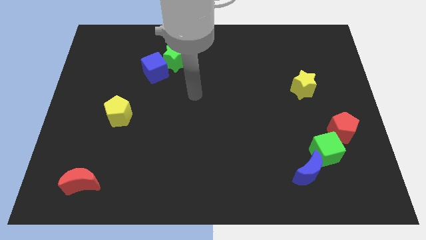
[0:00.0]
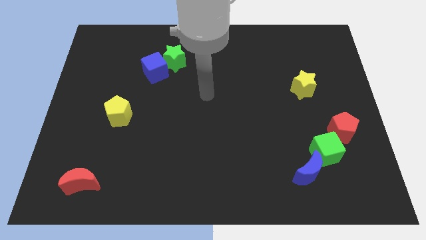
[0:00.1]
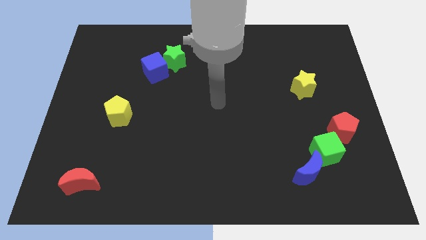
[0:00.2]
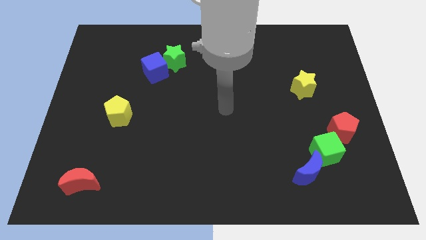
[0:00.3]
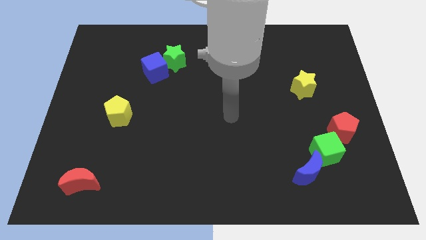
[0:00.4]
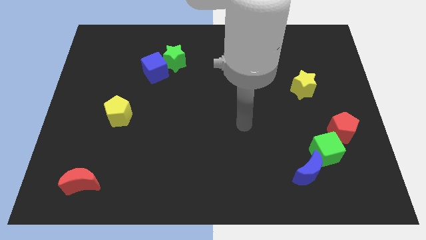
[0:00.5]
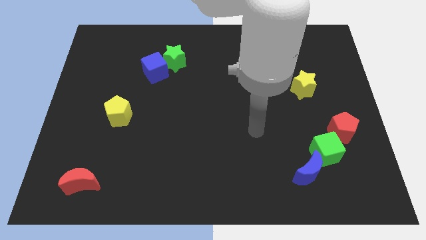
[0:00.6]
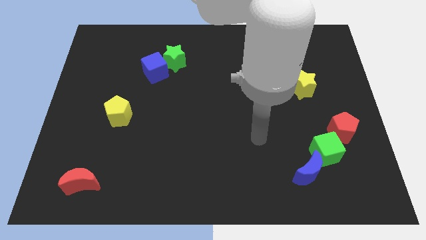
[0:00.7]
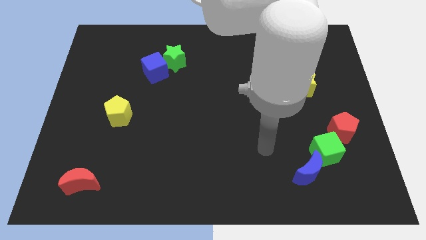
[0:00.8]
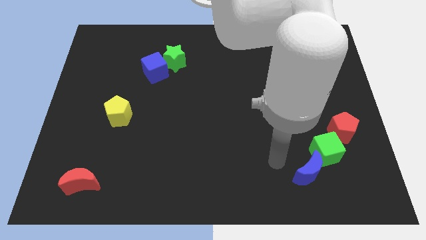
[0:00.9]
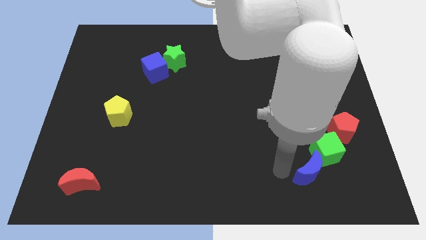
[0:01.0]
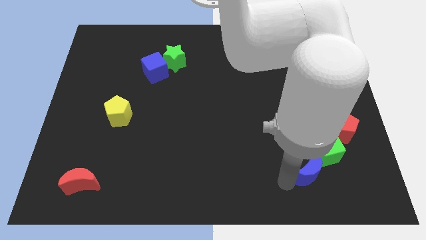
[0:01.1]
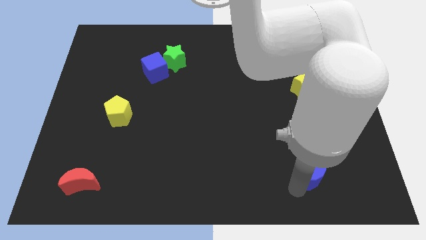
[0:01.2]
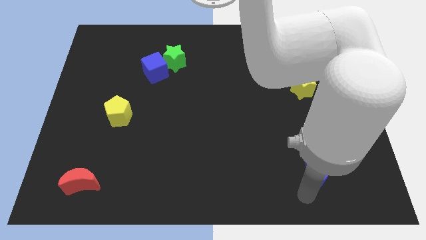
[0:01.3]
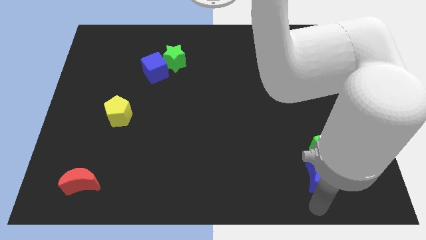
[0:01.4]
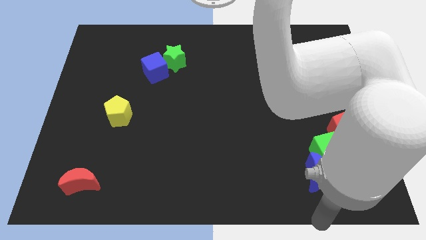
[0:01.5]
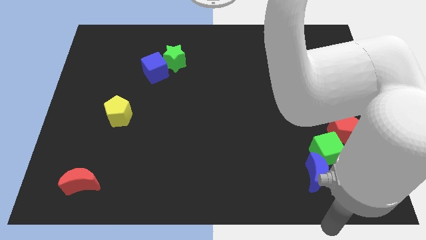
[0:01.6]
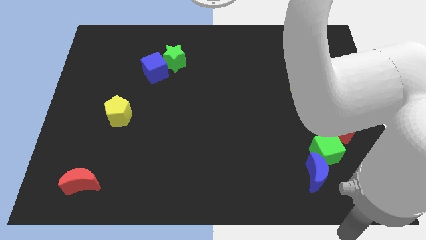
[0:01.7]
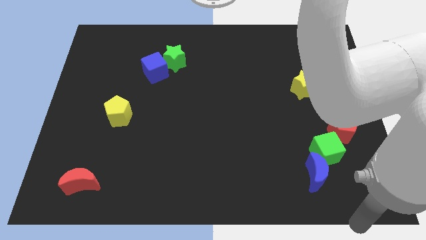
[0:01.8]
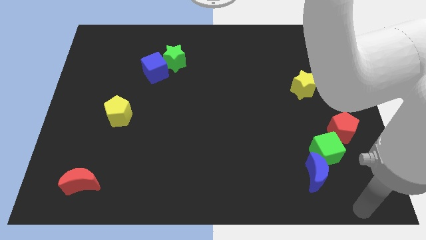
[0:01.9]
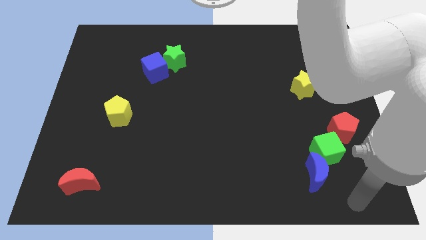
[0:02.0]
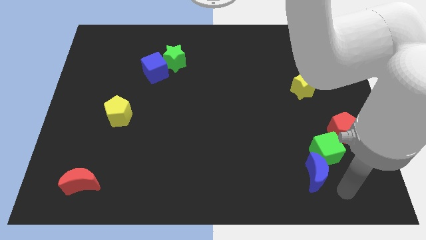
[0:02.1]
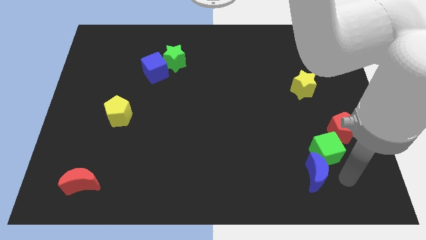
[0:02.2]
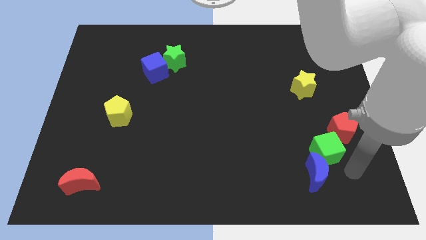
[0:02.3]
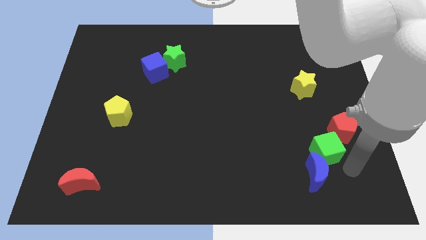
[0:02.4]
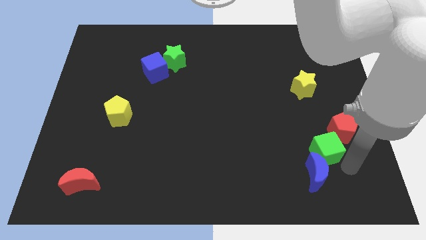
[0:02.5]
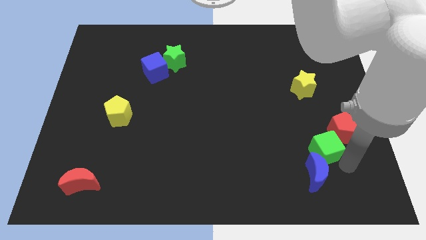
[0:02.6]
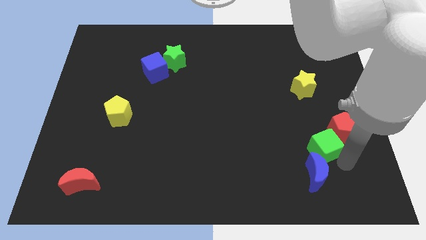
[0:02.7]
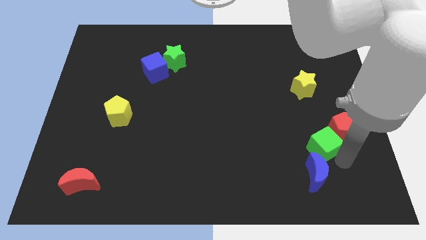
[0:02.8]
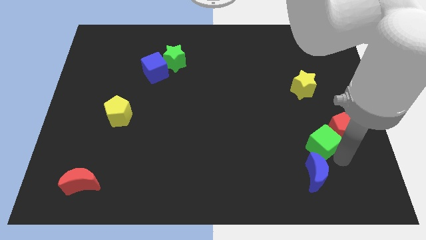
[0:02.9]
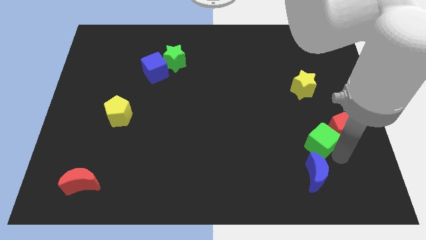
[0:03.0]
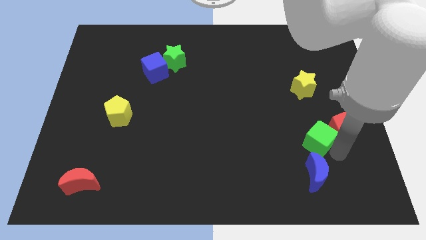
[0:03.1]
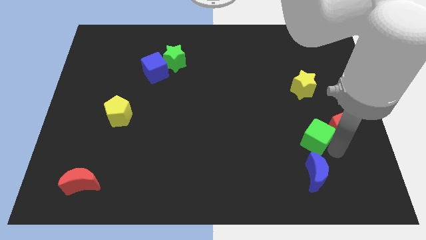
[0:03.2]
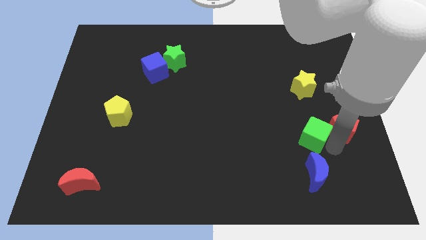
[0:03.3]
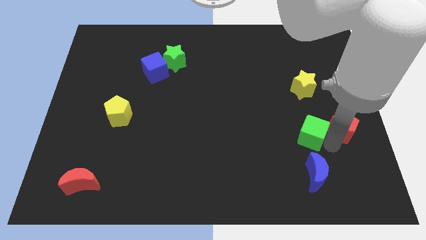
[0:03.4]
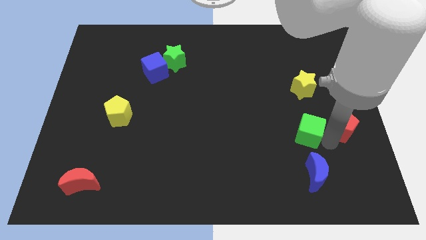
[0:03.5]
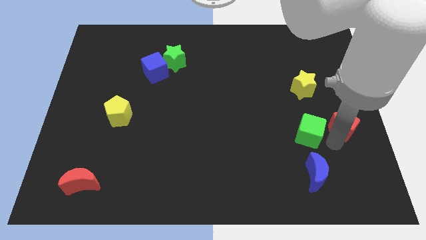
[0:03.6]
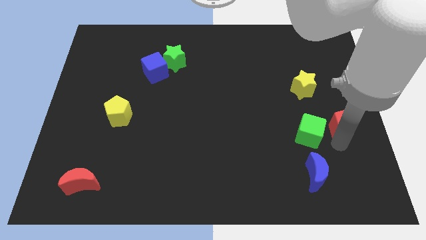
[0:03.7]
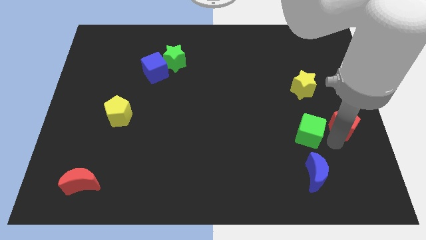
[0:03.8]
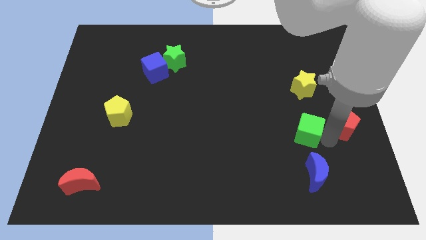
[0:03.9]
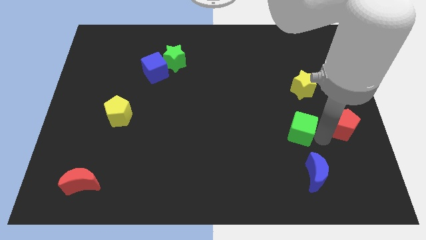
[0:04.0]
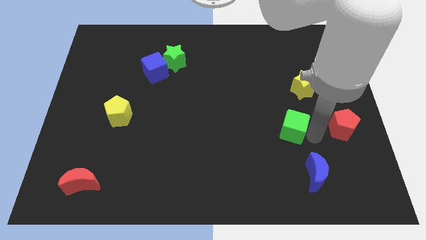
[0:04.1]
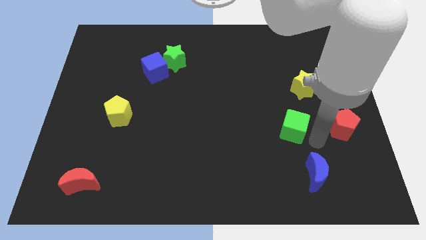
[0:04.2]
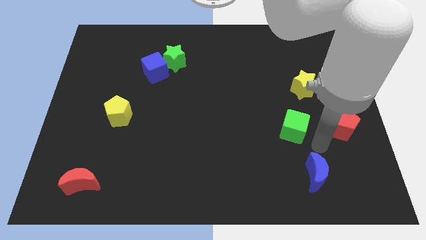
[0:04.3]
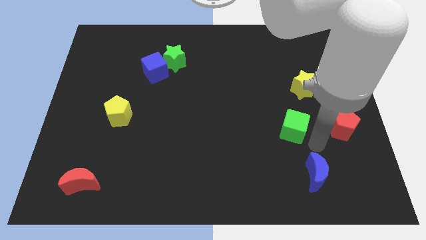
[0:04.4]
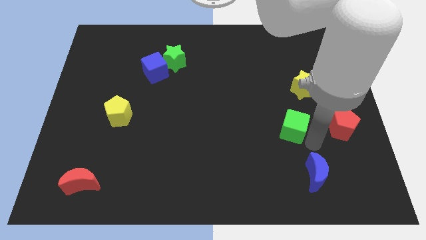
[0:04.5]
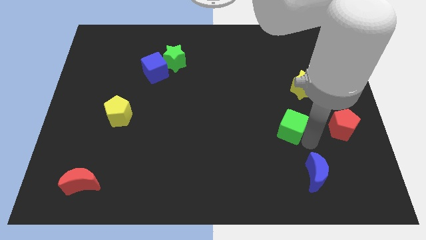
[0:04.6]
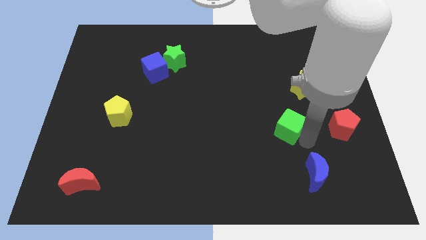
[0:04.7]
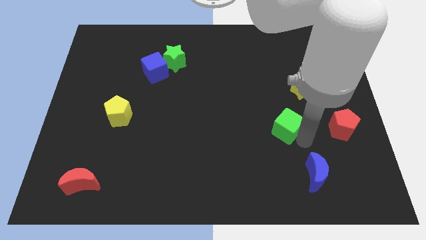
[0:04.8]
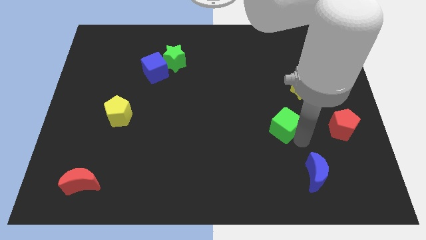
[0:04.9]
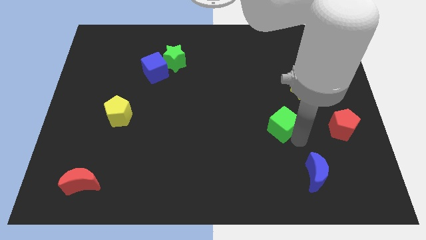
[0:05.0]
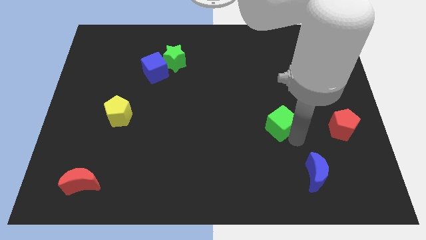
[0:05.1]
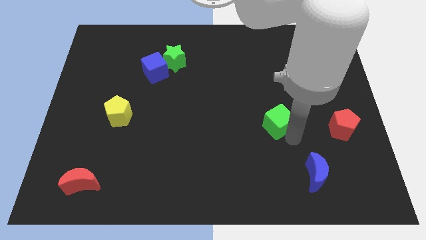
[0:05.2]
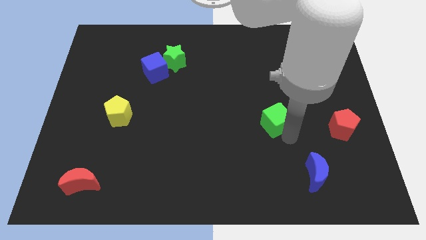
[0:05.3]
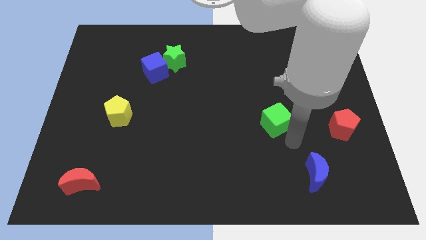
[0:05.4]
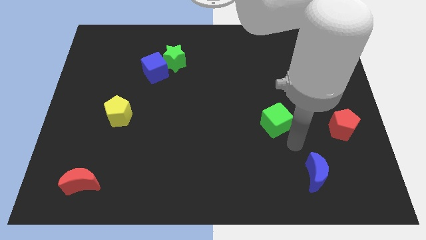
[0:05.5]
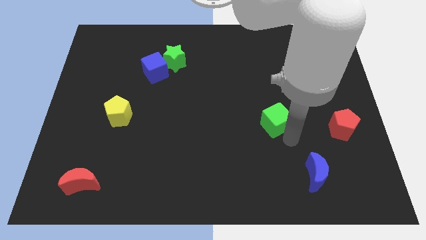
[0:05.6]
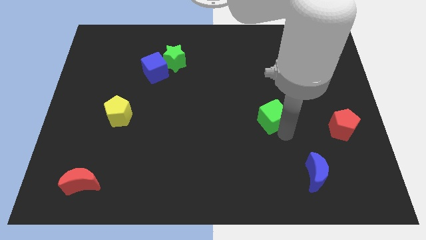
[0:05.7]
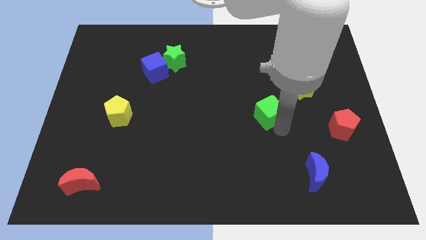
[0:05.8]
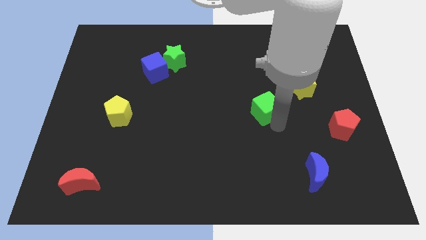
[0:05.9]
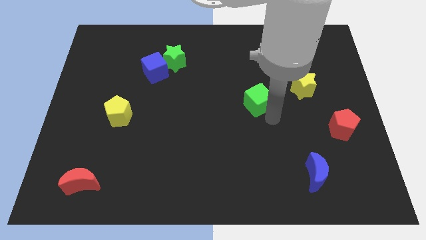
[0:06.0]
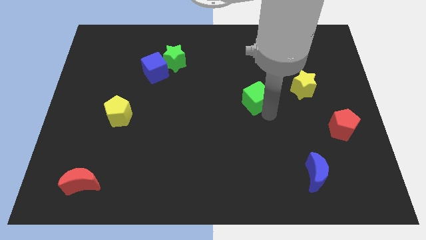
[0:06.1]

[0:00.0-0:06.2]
slide the green cube up and then to the left

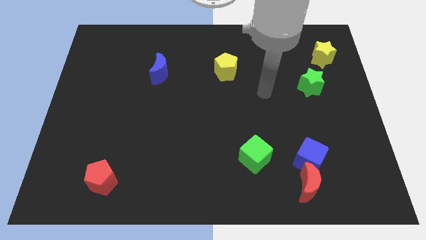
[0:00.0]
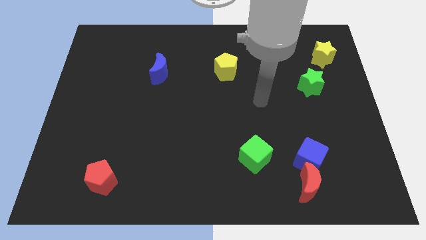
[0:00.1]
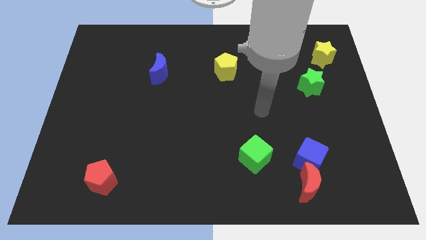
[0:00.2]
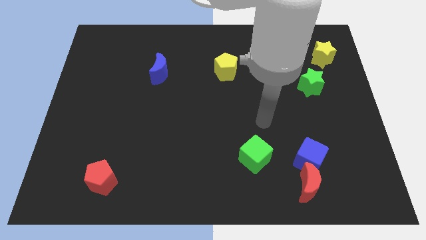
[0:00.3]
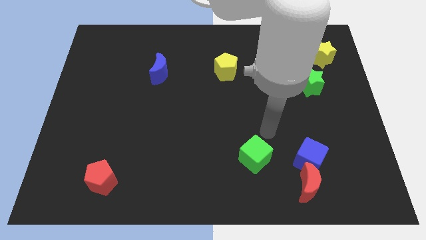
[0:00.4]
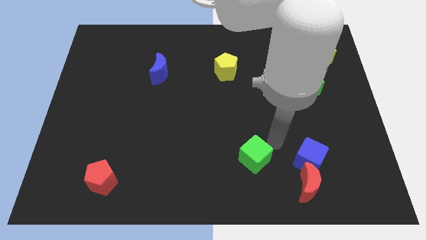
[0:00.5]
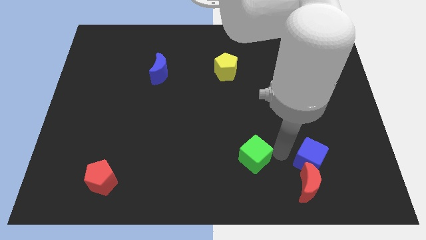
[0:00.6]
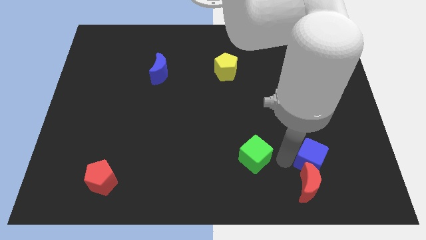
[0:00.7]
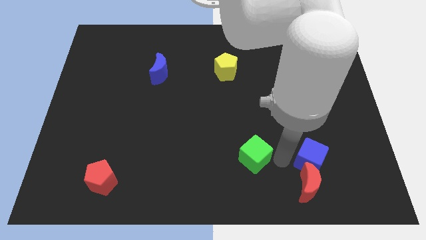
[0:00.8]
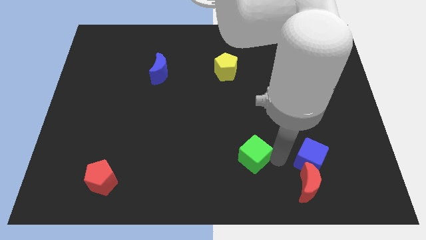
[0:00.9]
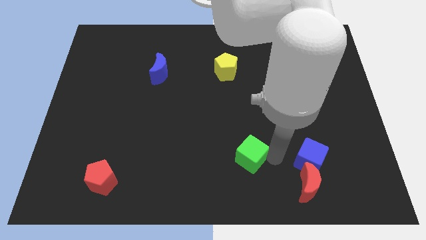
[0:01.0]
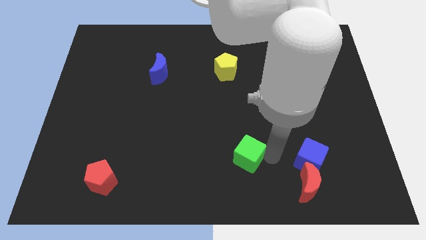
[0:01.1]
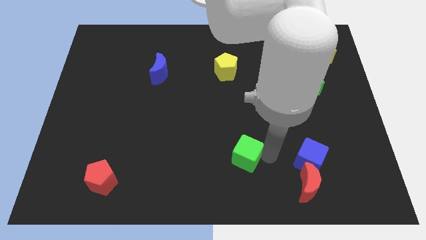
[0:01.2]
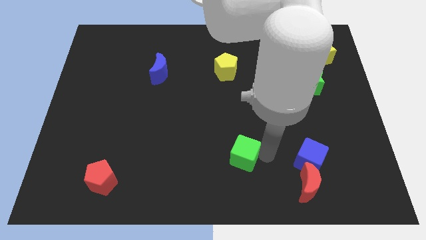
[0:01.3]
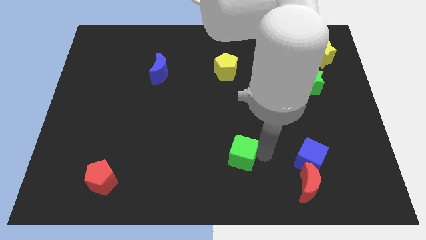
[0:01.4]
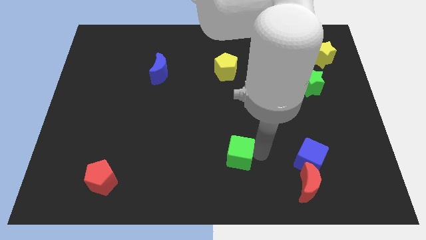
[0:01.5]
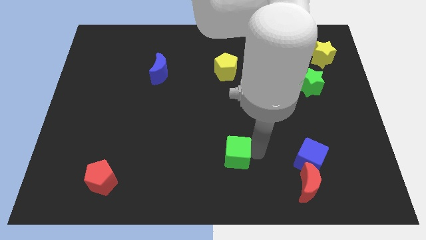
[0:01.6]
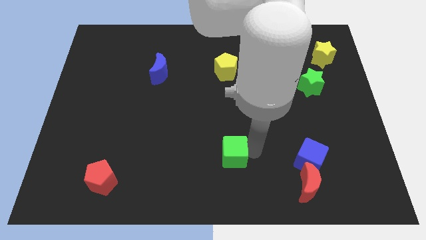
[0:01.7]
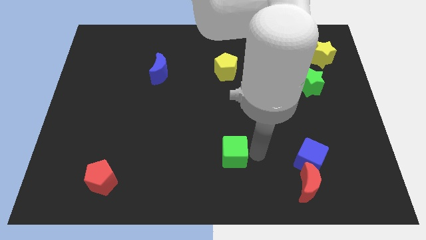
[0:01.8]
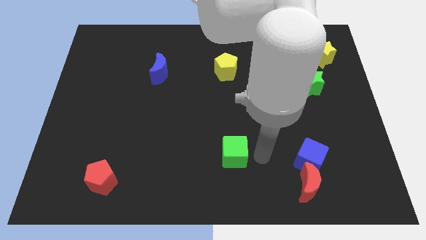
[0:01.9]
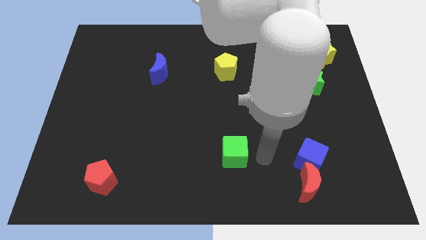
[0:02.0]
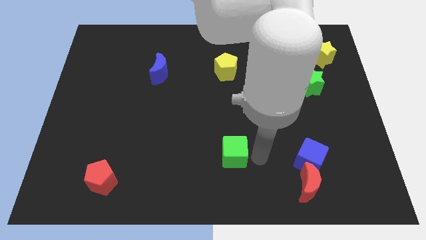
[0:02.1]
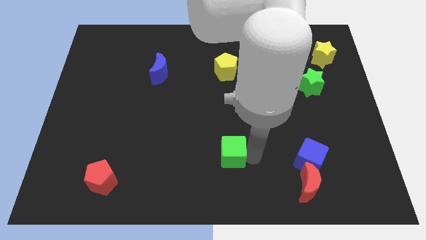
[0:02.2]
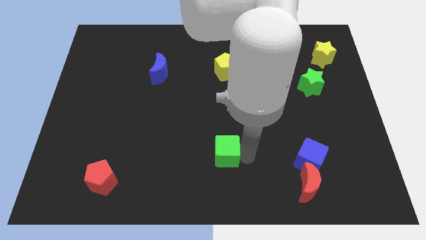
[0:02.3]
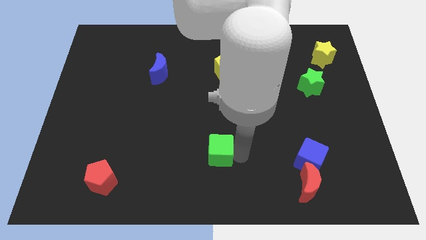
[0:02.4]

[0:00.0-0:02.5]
slide the green cube left a little
